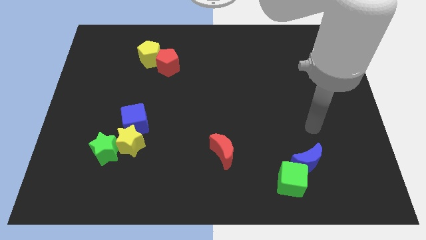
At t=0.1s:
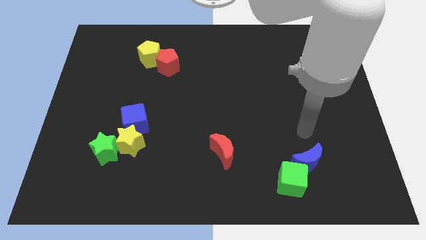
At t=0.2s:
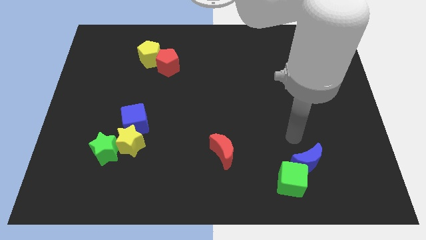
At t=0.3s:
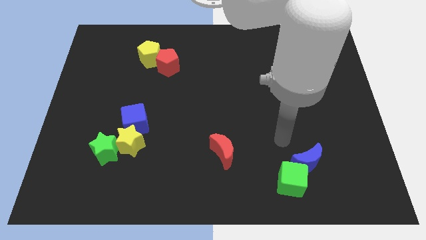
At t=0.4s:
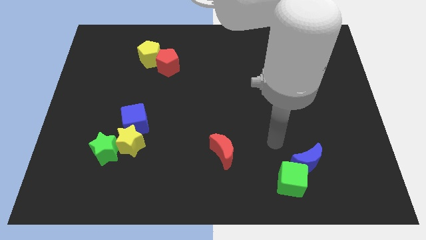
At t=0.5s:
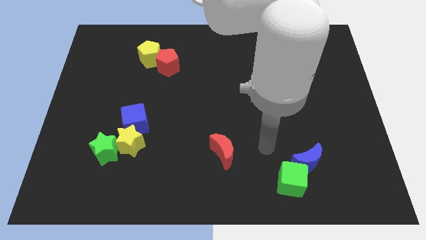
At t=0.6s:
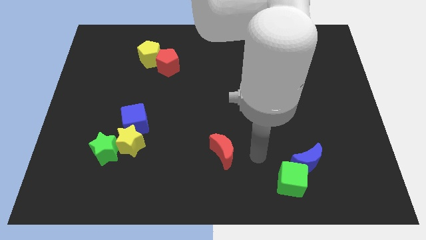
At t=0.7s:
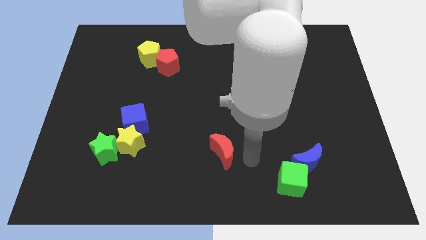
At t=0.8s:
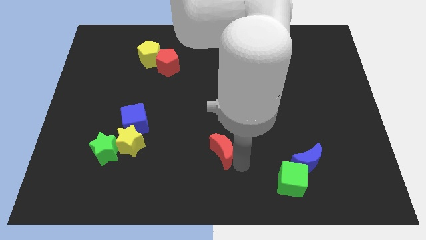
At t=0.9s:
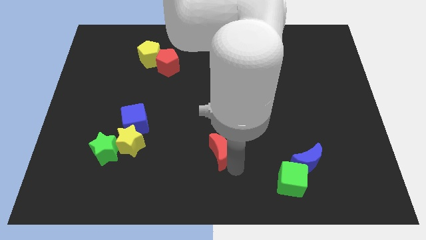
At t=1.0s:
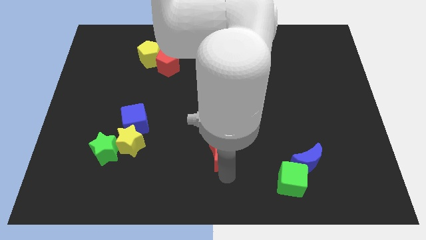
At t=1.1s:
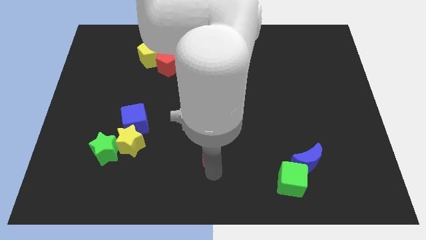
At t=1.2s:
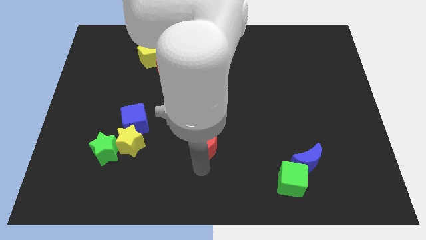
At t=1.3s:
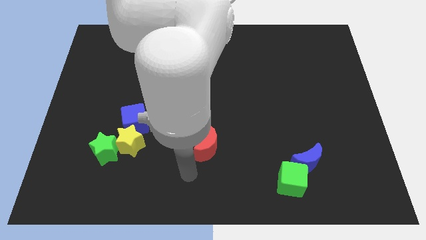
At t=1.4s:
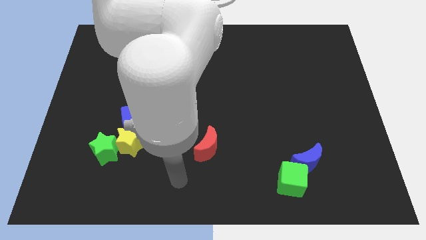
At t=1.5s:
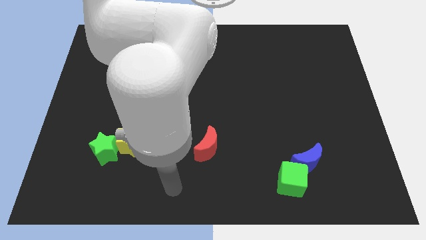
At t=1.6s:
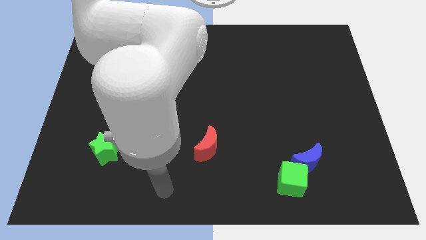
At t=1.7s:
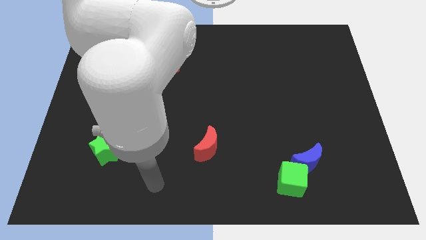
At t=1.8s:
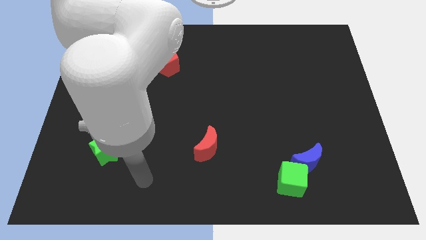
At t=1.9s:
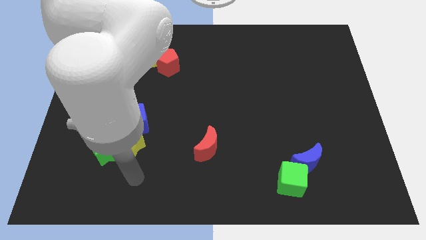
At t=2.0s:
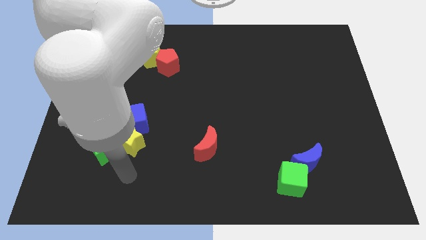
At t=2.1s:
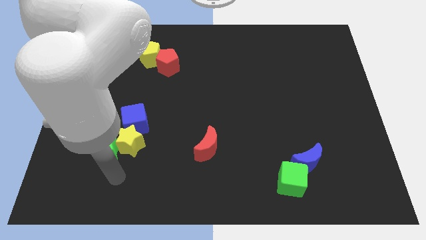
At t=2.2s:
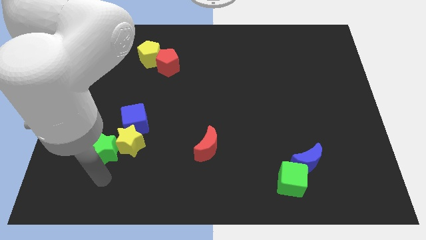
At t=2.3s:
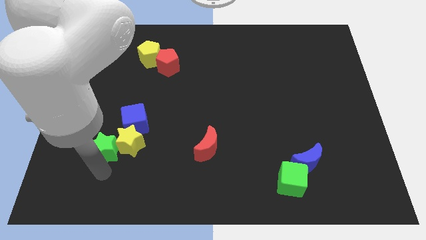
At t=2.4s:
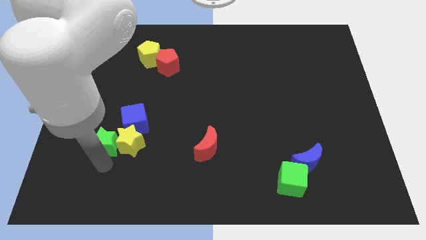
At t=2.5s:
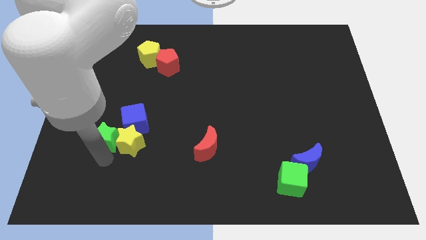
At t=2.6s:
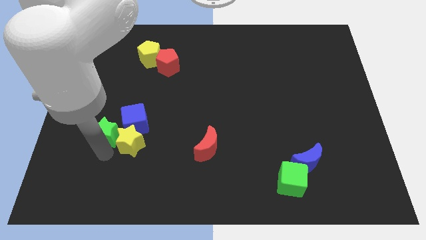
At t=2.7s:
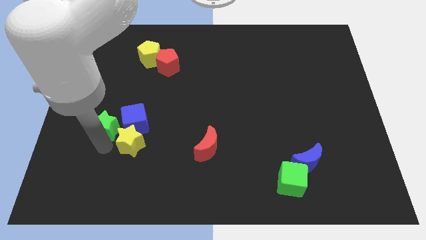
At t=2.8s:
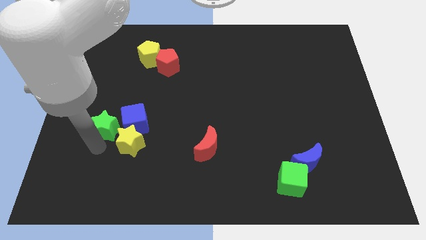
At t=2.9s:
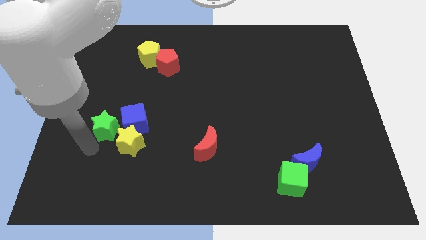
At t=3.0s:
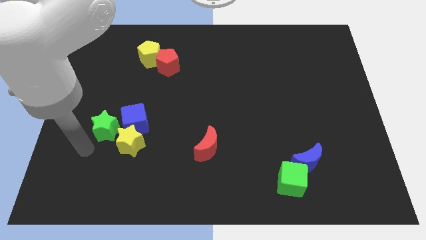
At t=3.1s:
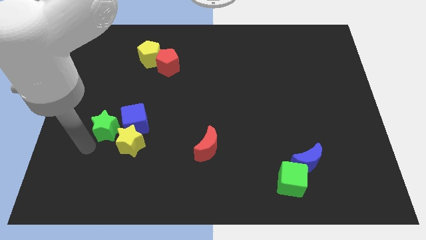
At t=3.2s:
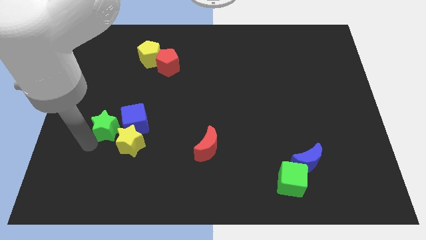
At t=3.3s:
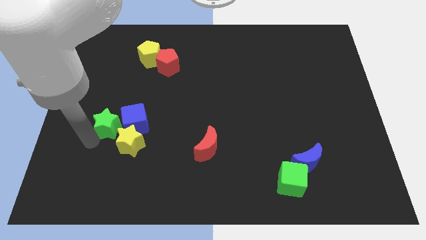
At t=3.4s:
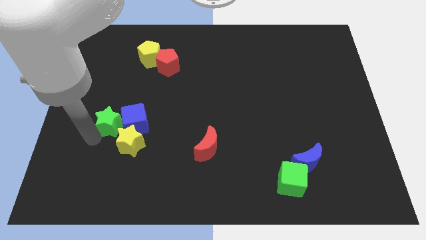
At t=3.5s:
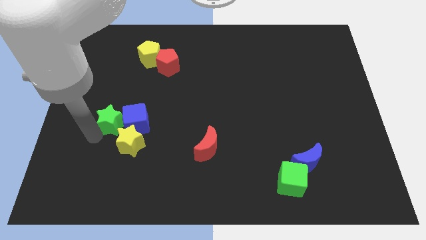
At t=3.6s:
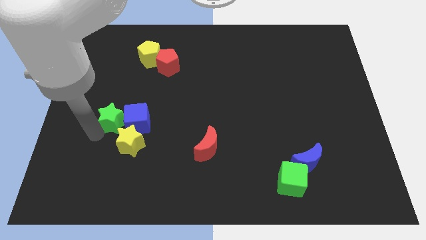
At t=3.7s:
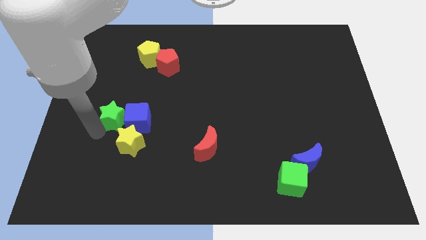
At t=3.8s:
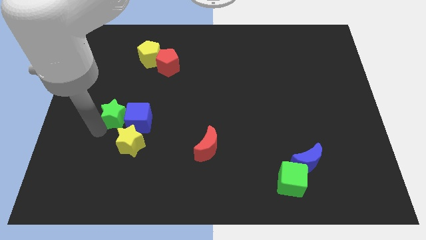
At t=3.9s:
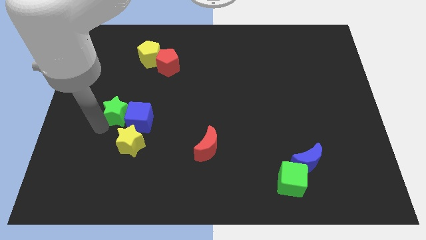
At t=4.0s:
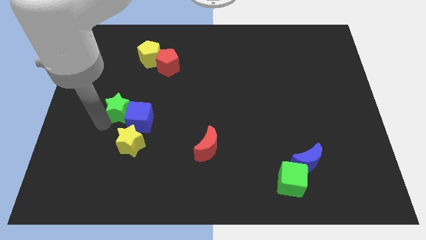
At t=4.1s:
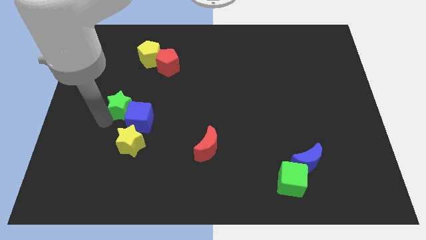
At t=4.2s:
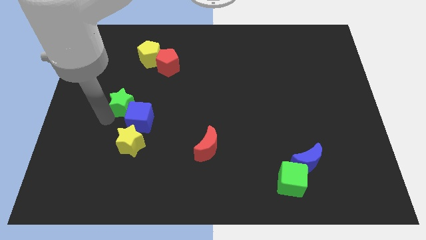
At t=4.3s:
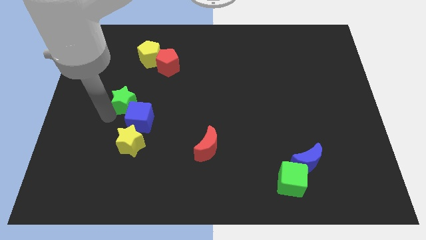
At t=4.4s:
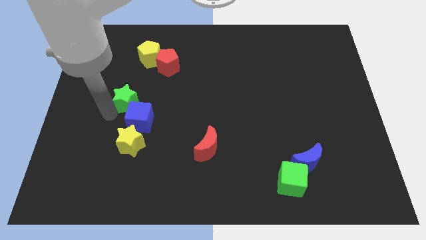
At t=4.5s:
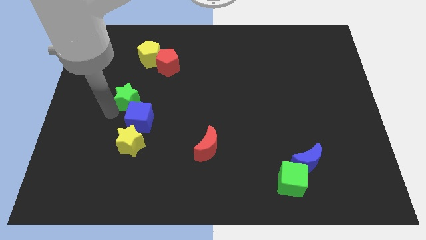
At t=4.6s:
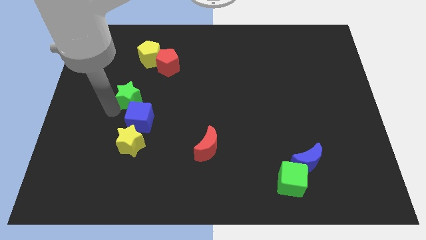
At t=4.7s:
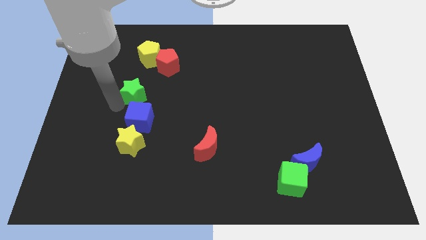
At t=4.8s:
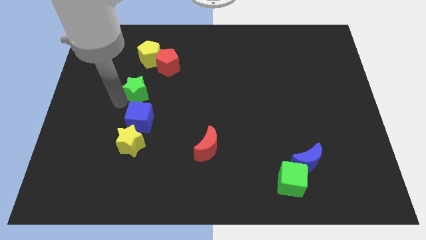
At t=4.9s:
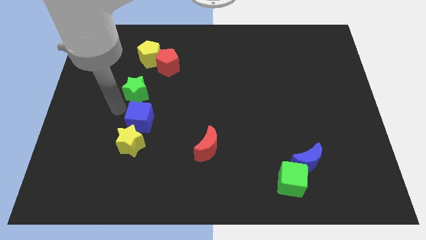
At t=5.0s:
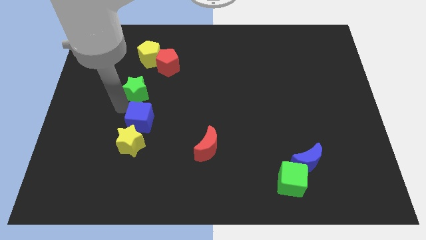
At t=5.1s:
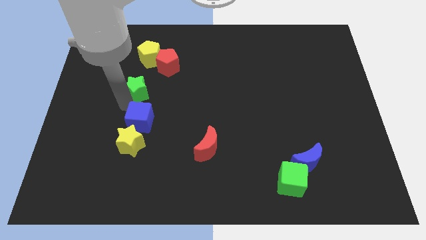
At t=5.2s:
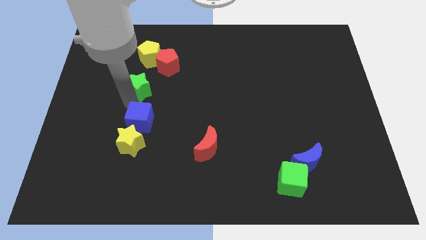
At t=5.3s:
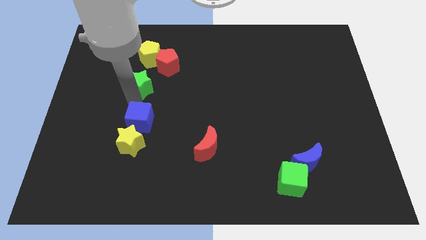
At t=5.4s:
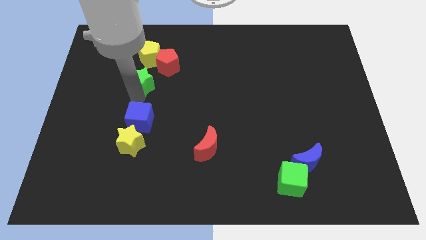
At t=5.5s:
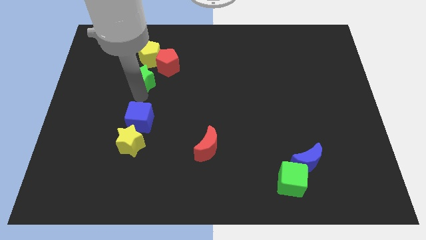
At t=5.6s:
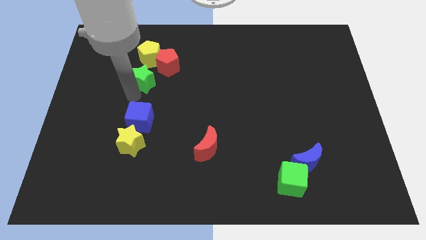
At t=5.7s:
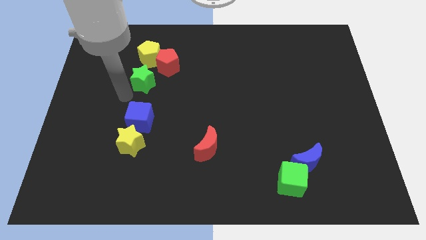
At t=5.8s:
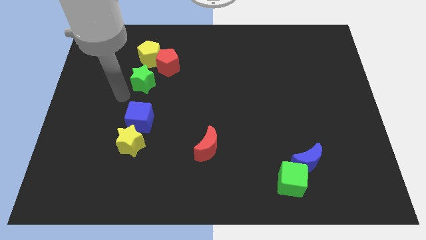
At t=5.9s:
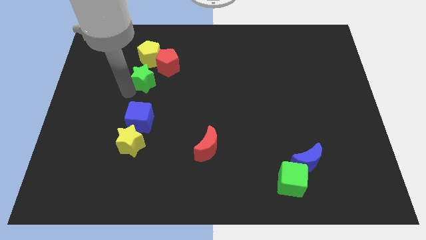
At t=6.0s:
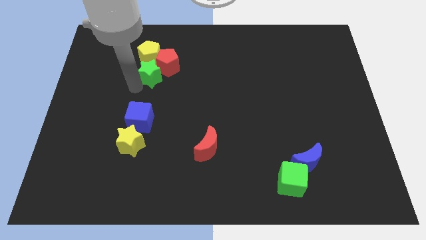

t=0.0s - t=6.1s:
move the green star close to the red pentagon

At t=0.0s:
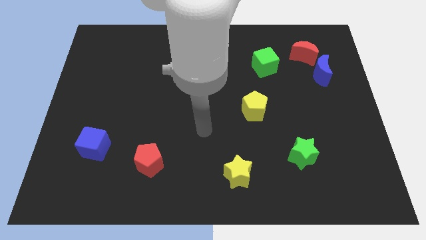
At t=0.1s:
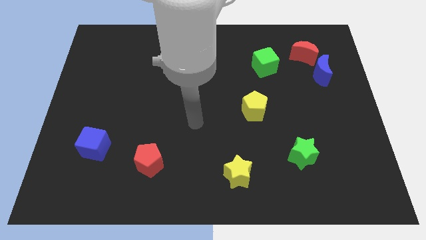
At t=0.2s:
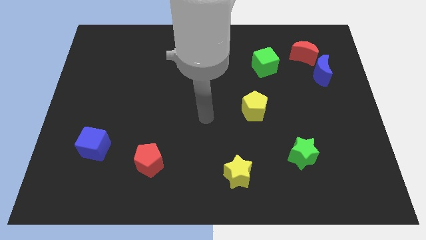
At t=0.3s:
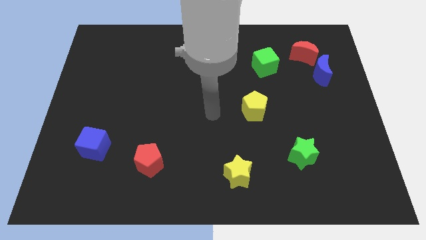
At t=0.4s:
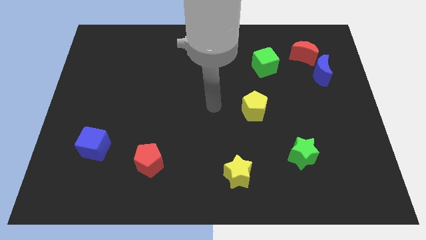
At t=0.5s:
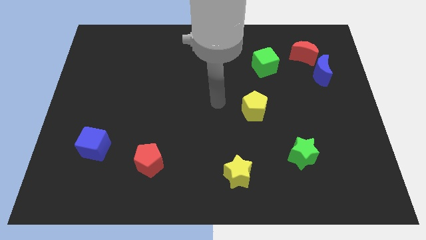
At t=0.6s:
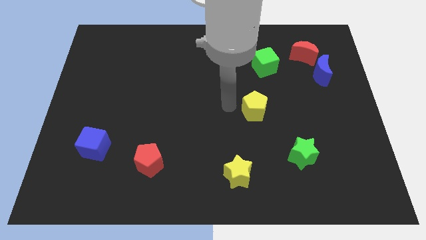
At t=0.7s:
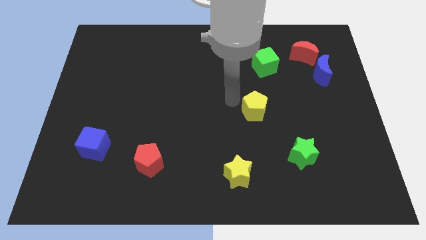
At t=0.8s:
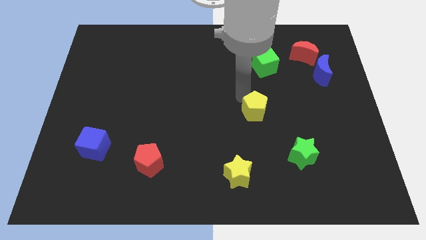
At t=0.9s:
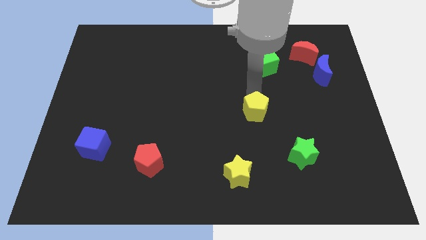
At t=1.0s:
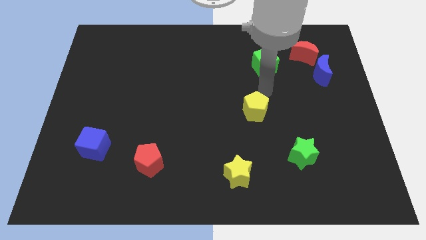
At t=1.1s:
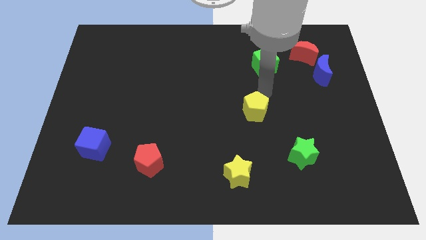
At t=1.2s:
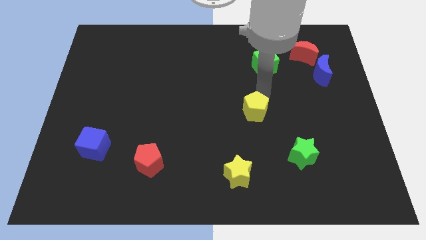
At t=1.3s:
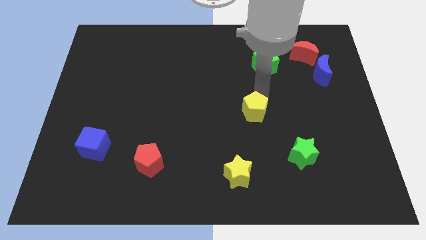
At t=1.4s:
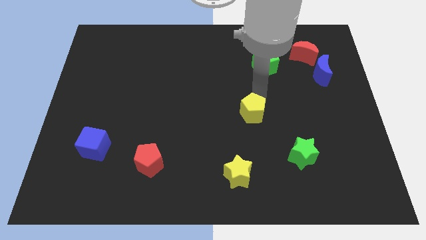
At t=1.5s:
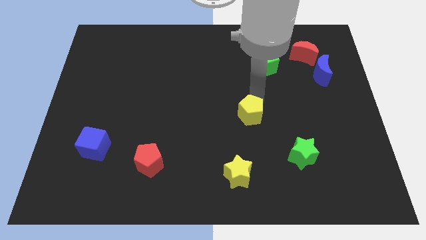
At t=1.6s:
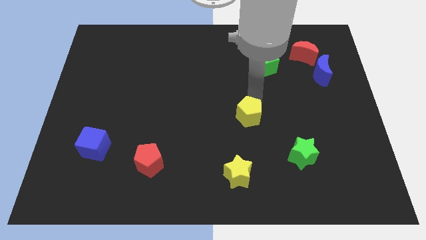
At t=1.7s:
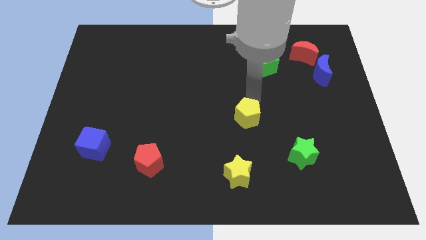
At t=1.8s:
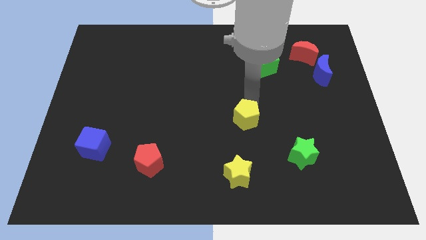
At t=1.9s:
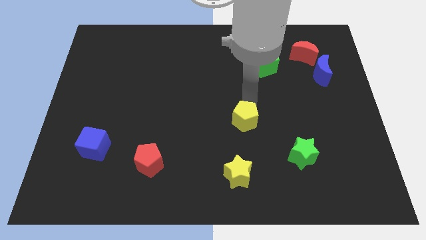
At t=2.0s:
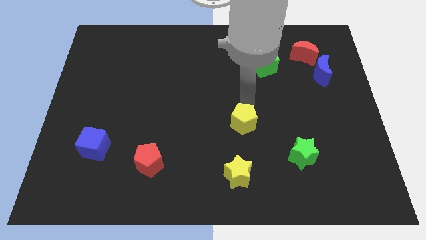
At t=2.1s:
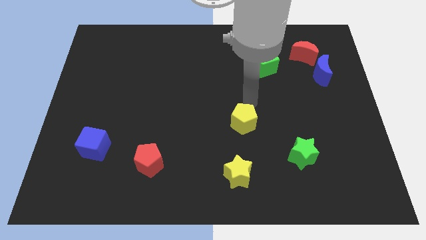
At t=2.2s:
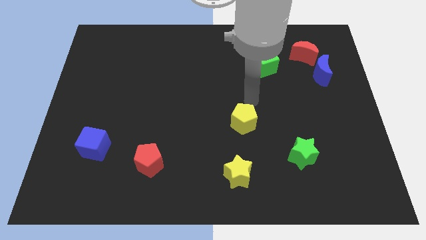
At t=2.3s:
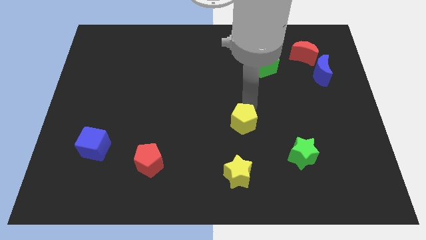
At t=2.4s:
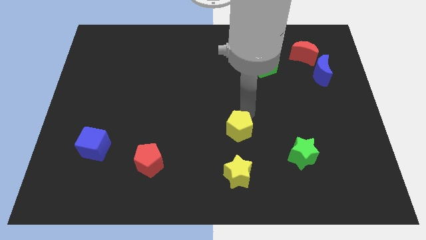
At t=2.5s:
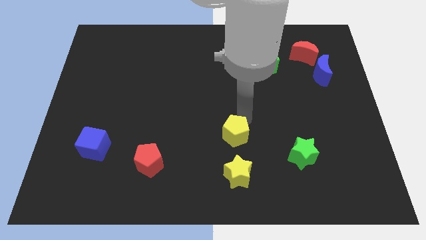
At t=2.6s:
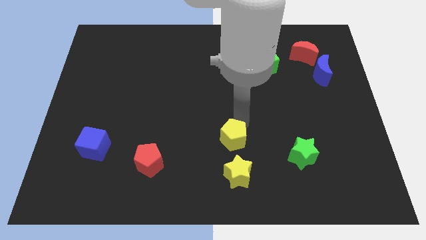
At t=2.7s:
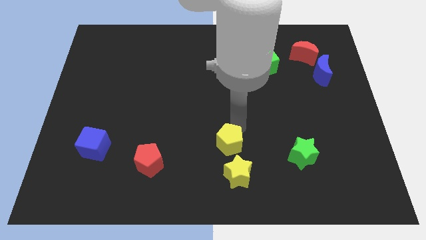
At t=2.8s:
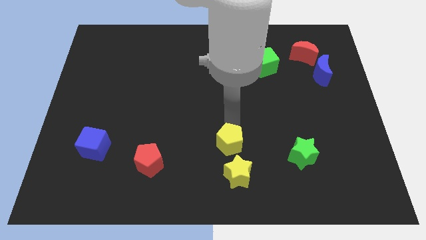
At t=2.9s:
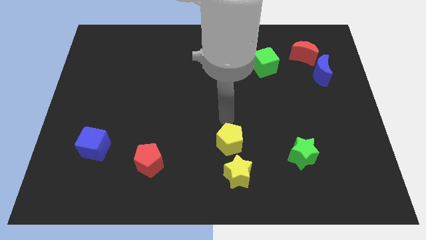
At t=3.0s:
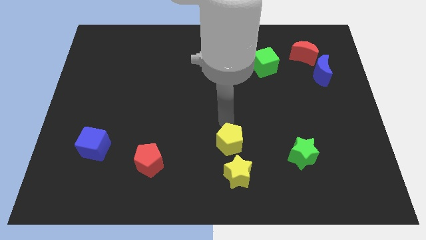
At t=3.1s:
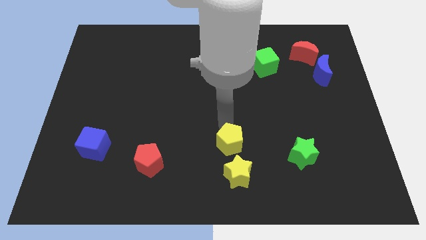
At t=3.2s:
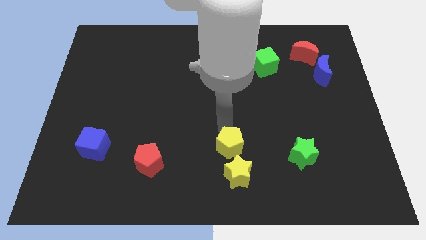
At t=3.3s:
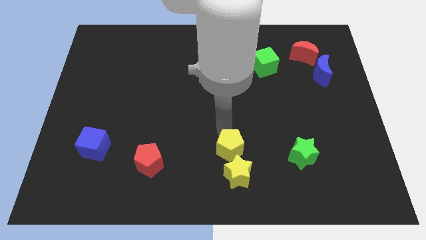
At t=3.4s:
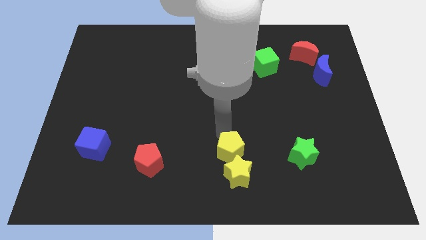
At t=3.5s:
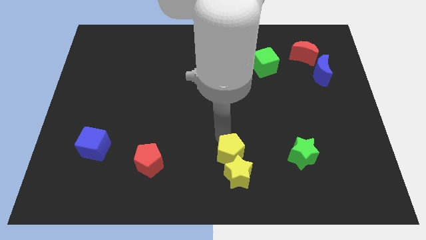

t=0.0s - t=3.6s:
push the yellow pentagon close to the yellow star
